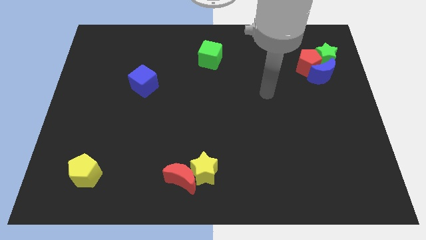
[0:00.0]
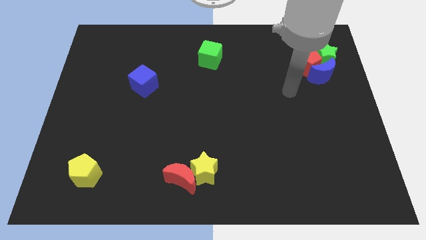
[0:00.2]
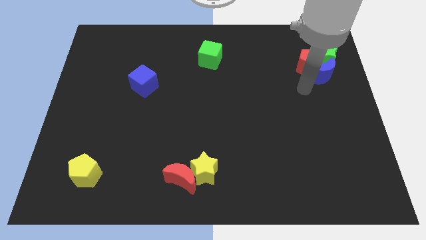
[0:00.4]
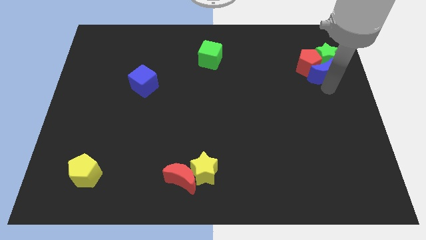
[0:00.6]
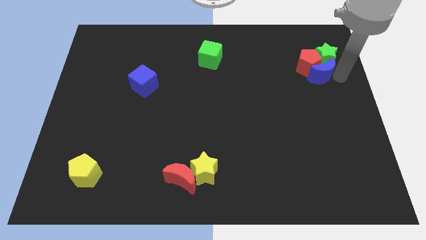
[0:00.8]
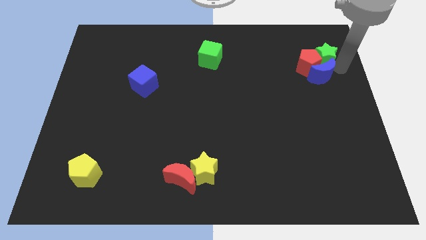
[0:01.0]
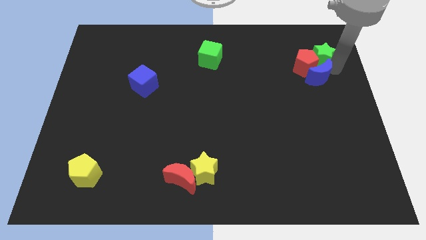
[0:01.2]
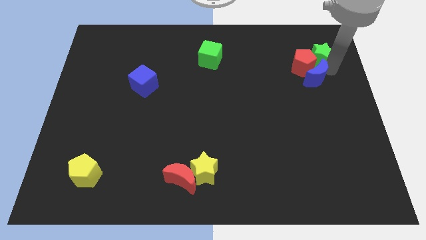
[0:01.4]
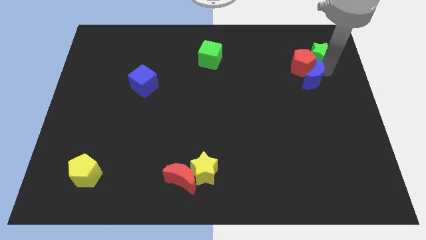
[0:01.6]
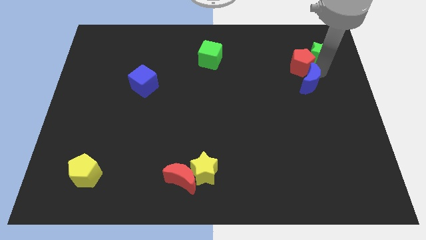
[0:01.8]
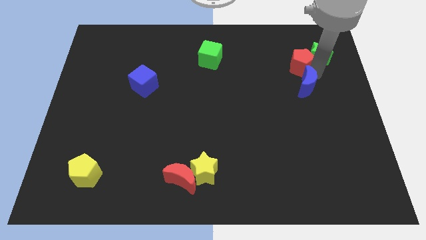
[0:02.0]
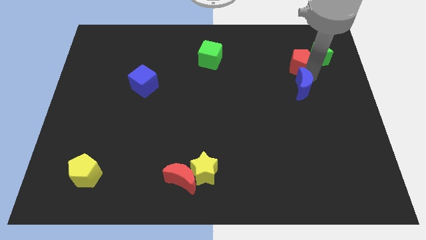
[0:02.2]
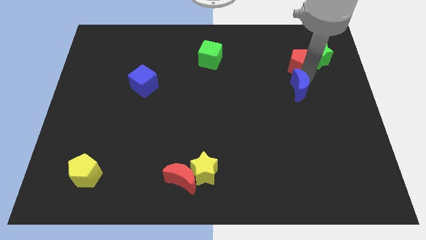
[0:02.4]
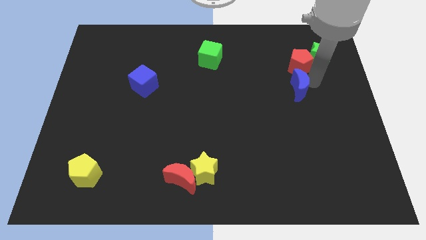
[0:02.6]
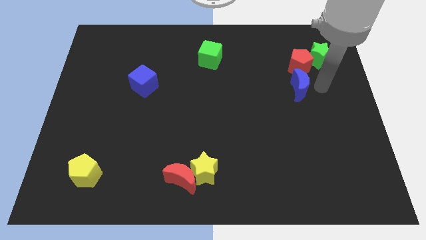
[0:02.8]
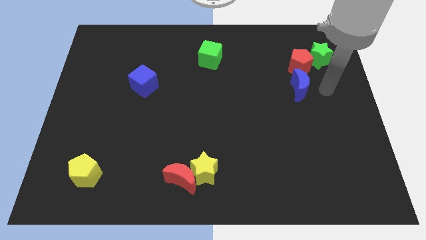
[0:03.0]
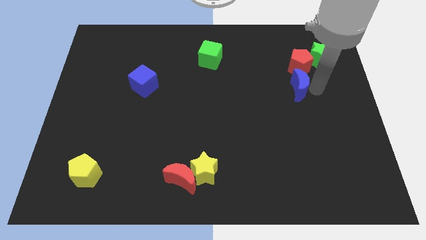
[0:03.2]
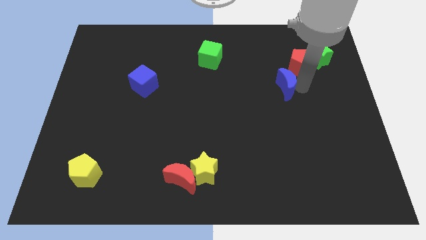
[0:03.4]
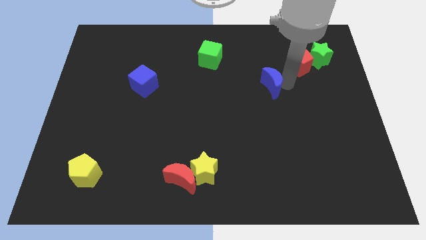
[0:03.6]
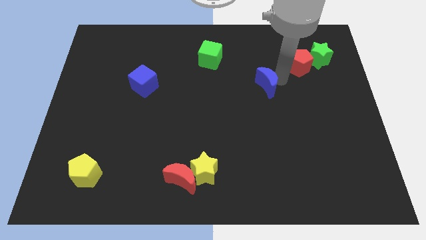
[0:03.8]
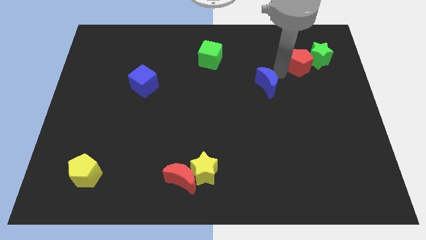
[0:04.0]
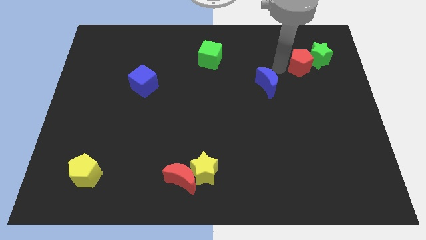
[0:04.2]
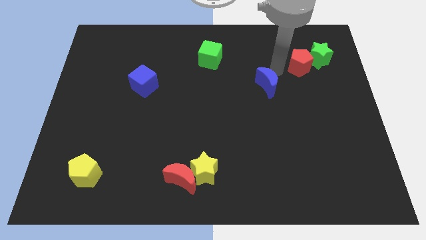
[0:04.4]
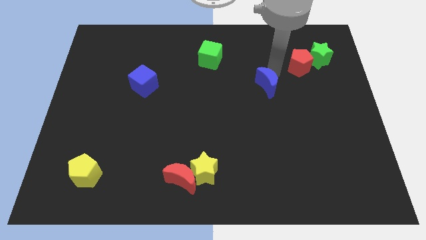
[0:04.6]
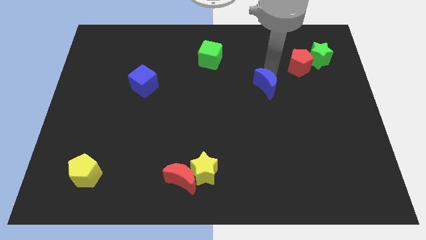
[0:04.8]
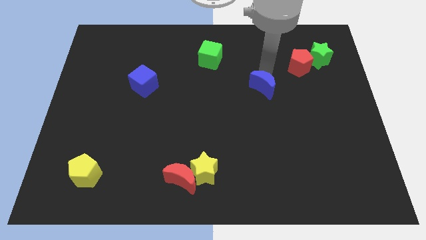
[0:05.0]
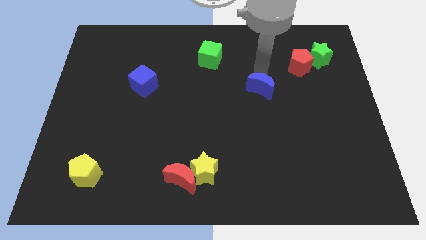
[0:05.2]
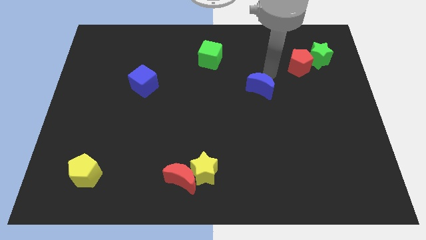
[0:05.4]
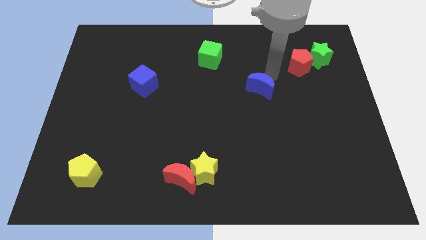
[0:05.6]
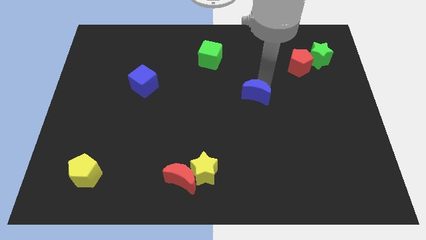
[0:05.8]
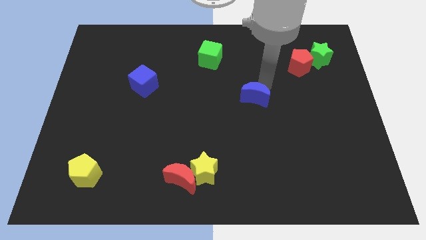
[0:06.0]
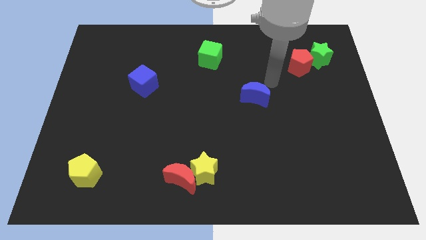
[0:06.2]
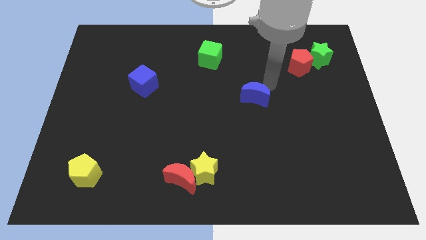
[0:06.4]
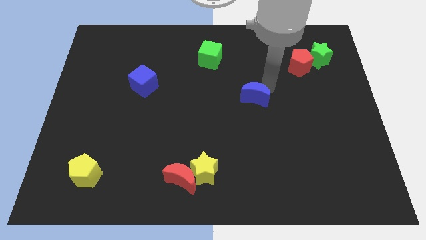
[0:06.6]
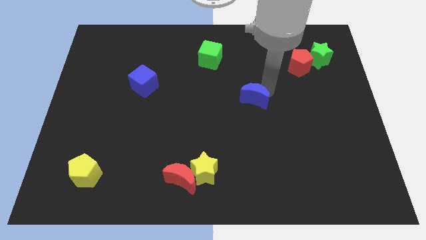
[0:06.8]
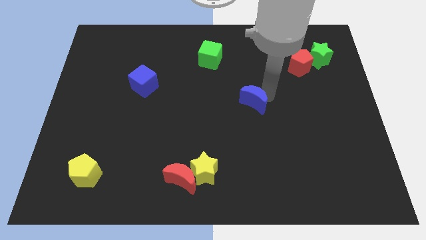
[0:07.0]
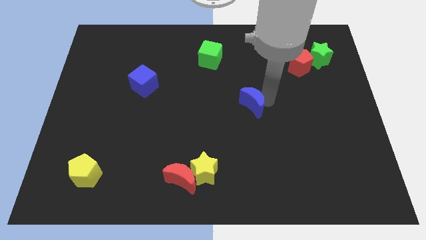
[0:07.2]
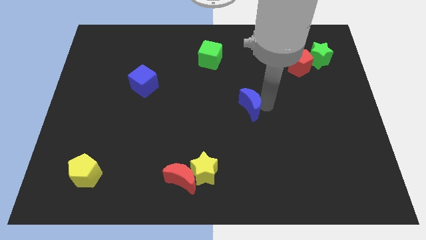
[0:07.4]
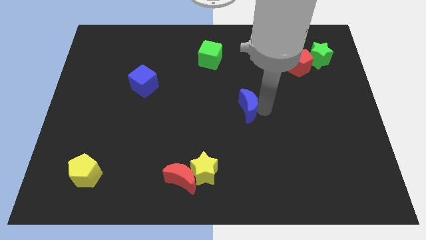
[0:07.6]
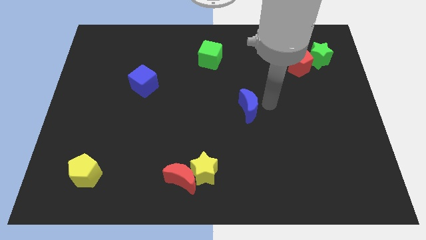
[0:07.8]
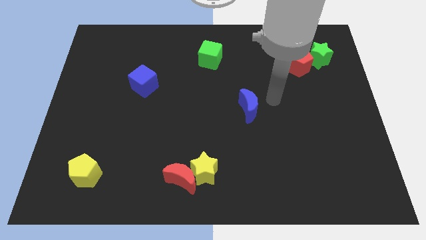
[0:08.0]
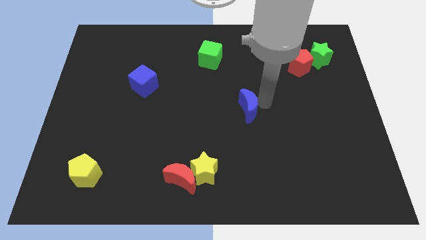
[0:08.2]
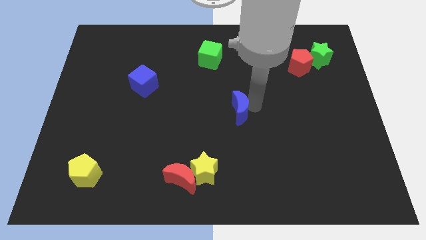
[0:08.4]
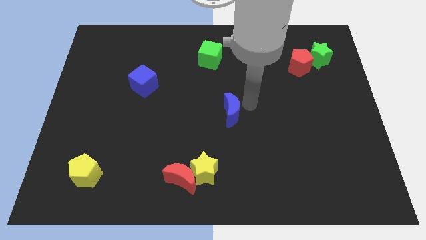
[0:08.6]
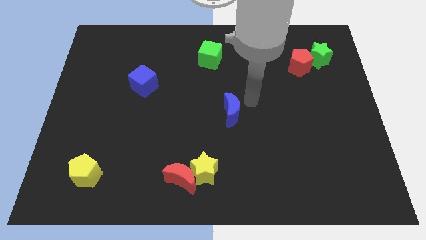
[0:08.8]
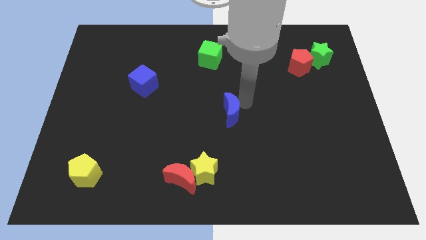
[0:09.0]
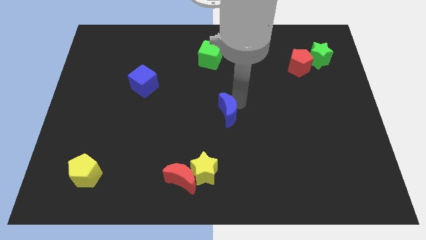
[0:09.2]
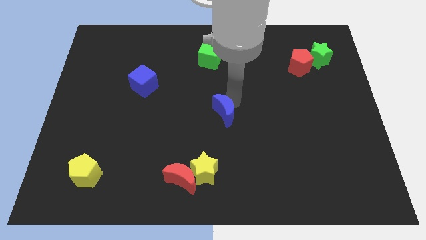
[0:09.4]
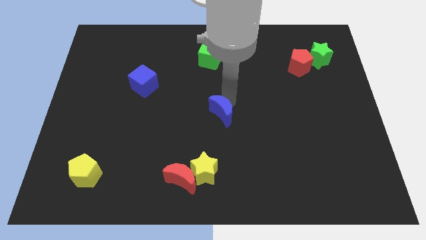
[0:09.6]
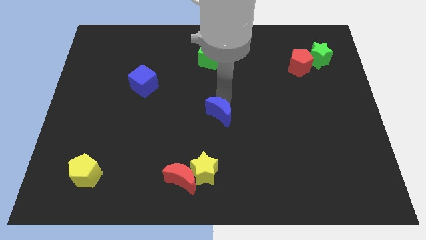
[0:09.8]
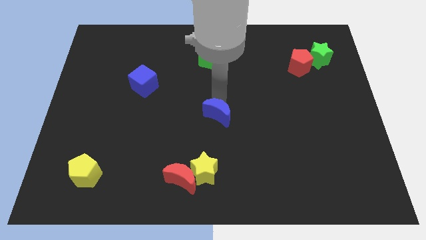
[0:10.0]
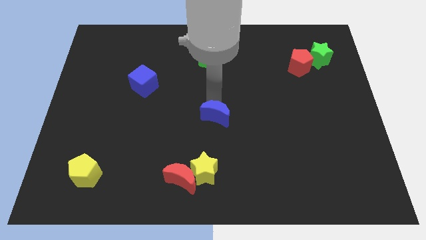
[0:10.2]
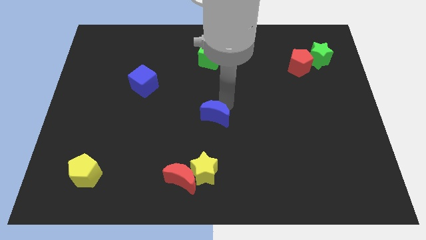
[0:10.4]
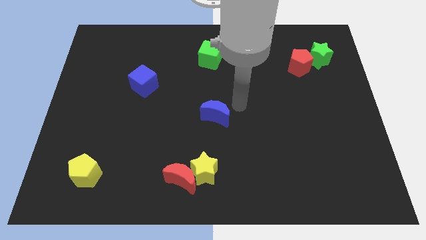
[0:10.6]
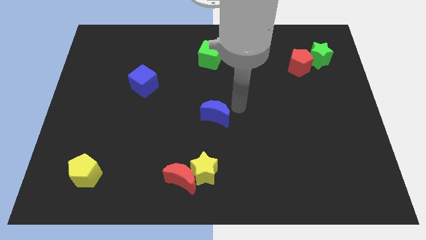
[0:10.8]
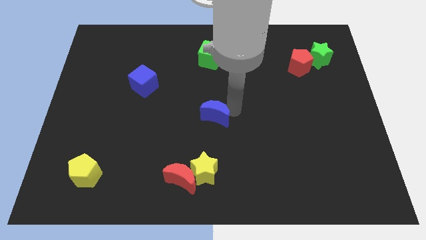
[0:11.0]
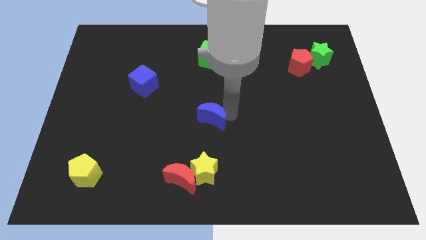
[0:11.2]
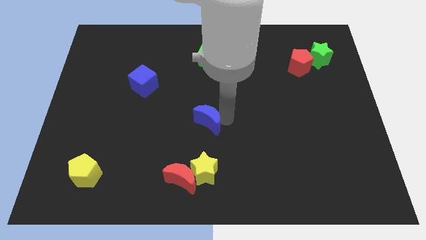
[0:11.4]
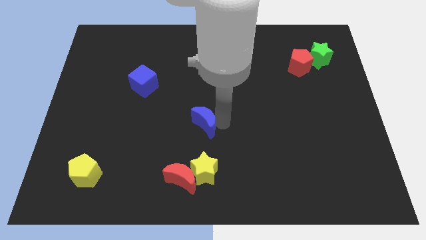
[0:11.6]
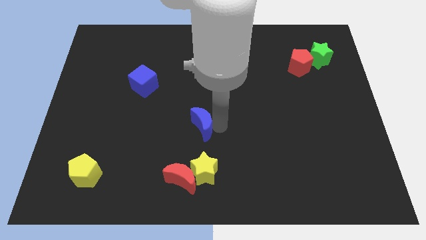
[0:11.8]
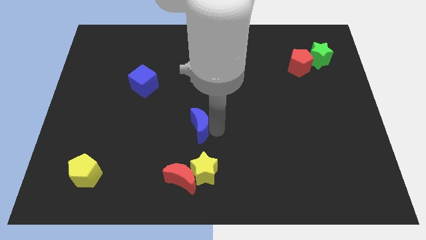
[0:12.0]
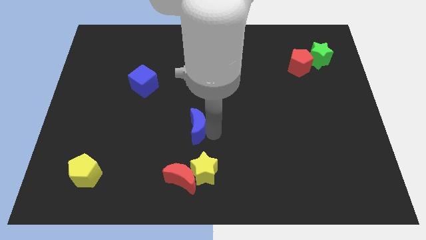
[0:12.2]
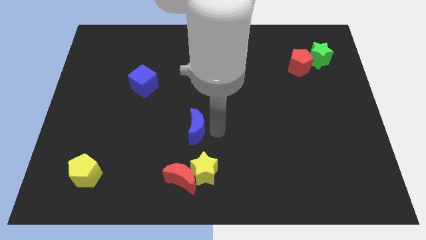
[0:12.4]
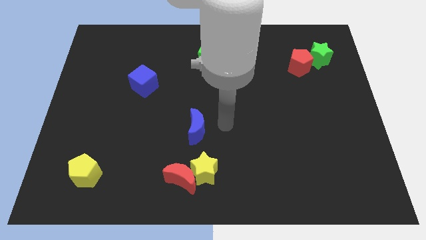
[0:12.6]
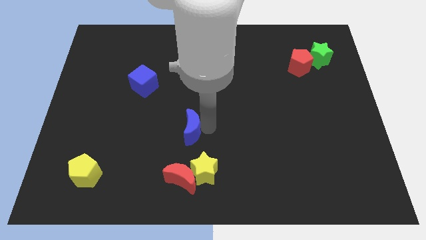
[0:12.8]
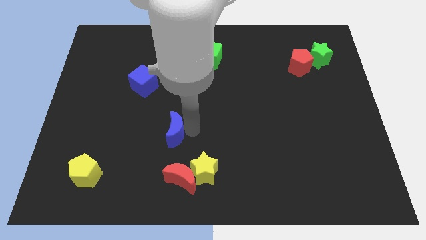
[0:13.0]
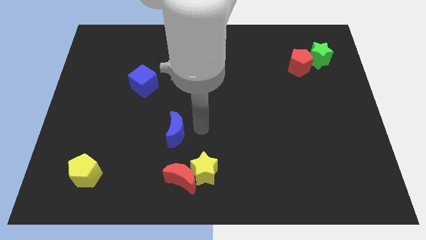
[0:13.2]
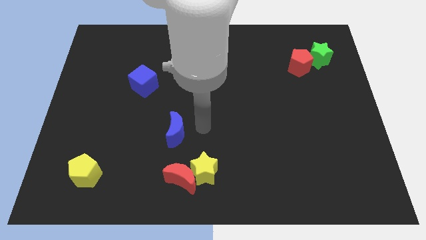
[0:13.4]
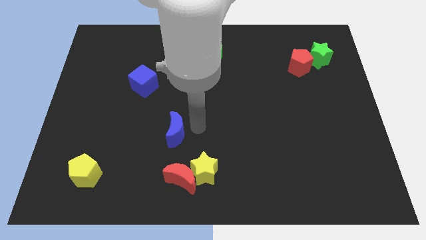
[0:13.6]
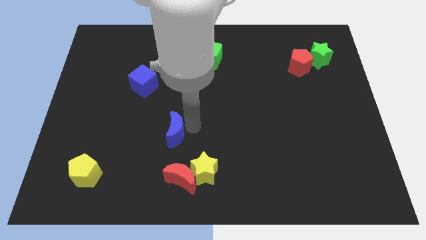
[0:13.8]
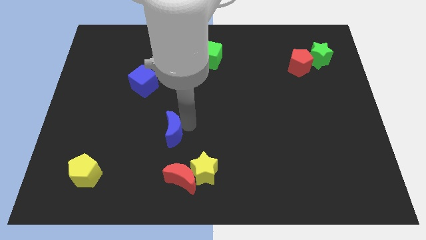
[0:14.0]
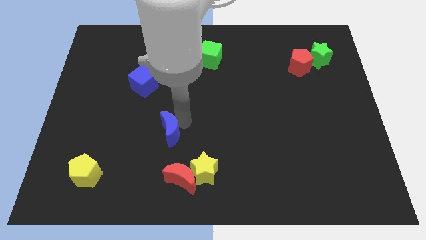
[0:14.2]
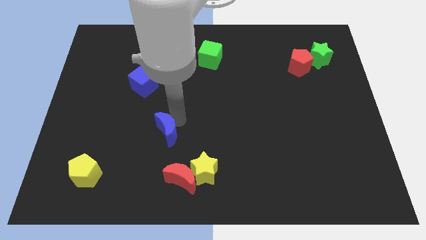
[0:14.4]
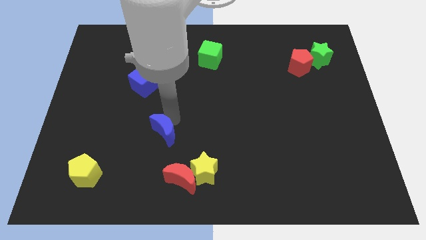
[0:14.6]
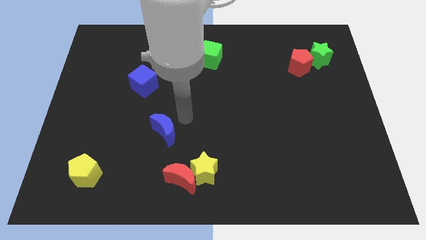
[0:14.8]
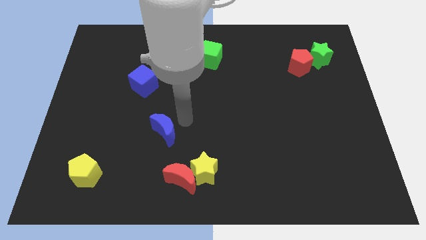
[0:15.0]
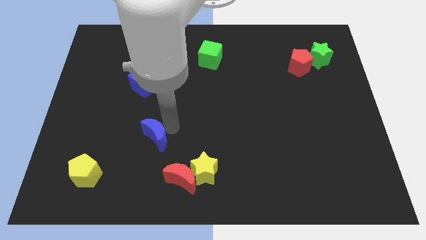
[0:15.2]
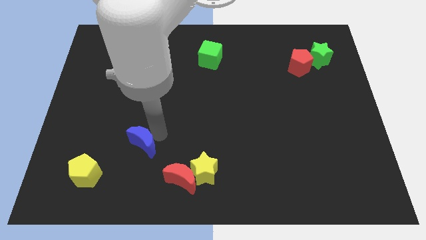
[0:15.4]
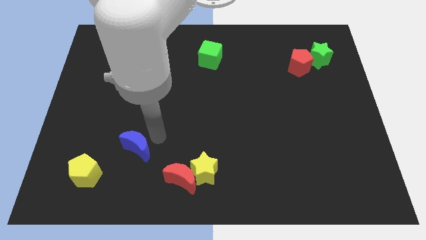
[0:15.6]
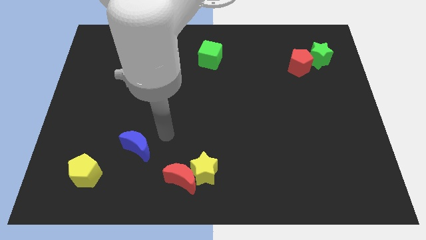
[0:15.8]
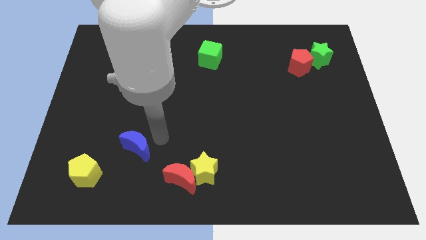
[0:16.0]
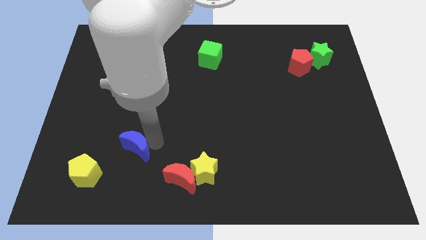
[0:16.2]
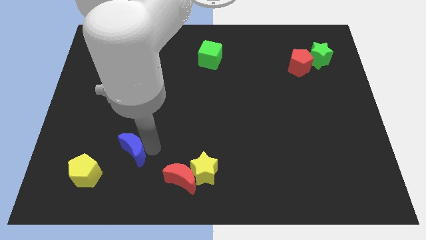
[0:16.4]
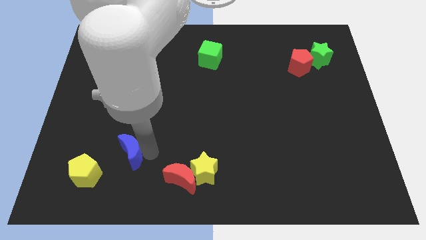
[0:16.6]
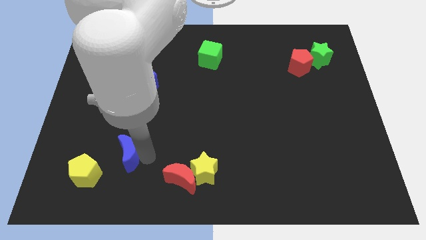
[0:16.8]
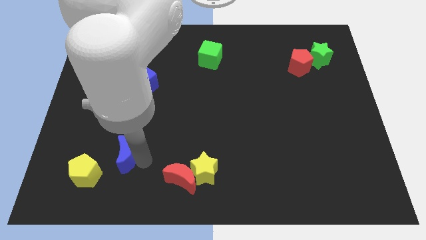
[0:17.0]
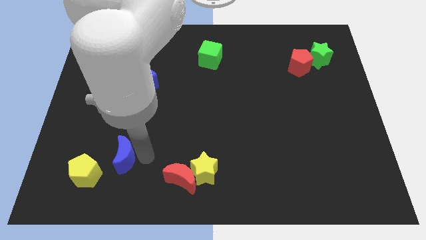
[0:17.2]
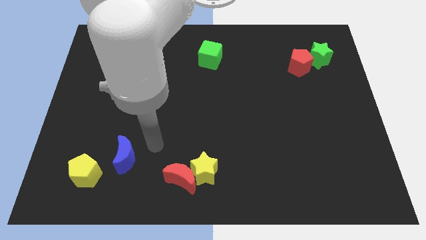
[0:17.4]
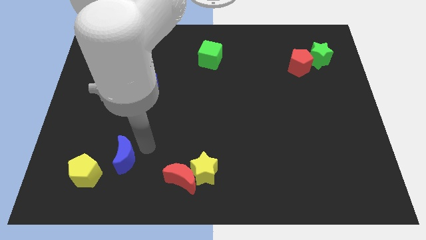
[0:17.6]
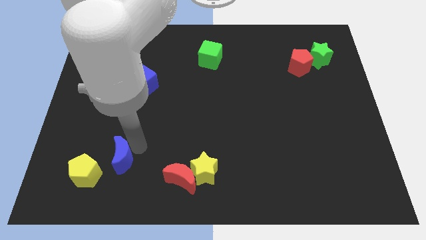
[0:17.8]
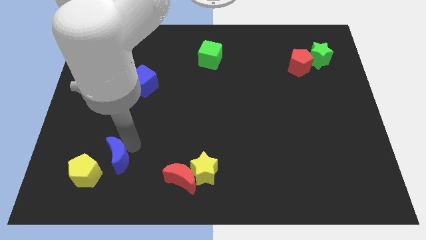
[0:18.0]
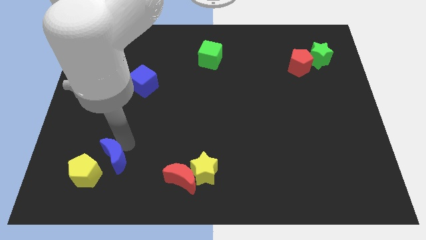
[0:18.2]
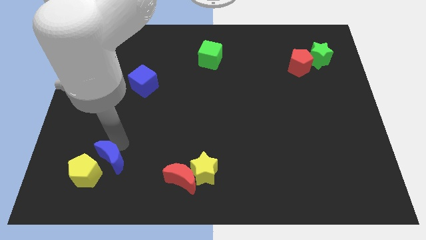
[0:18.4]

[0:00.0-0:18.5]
push the blue moon towards the yellow pentagon
